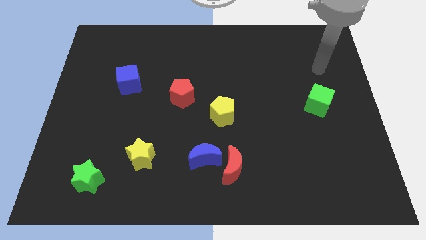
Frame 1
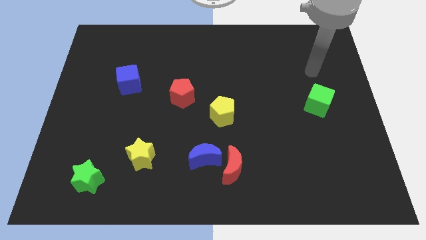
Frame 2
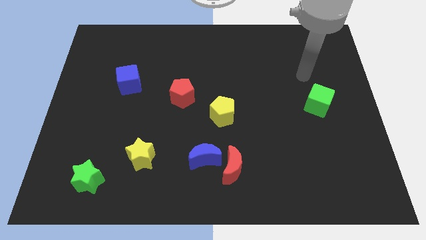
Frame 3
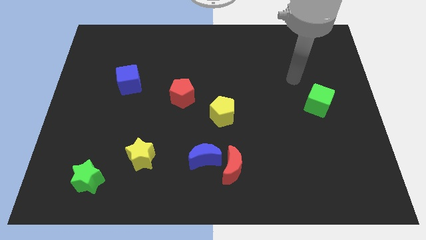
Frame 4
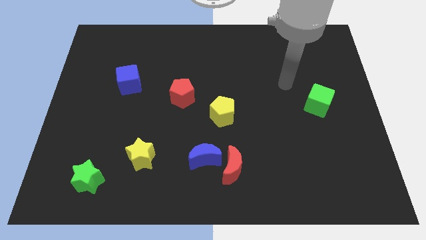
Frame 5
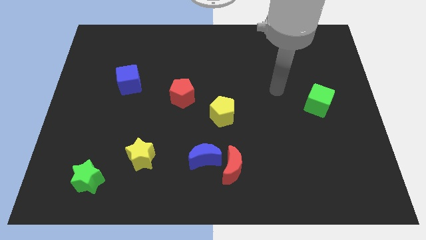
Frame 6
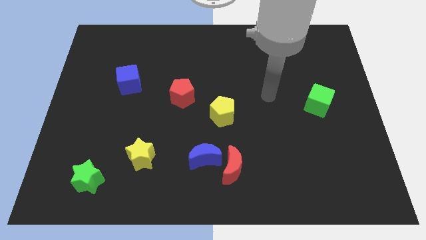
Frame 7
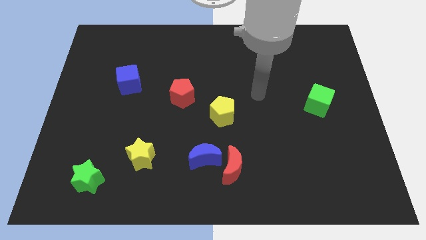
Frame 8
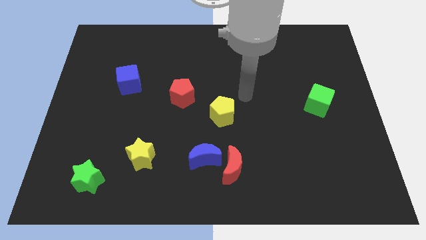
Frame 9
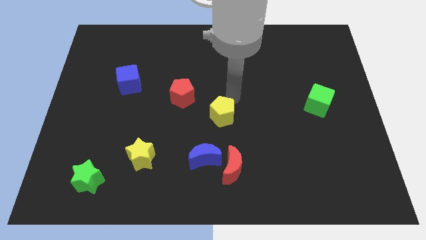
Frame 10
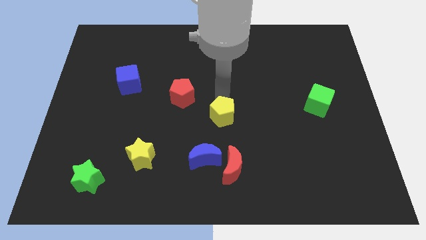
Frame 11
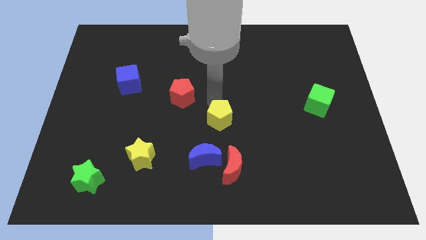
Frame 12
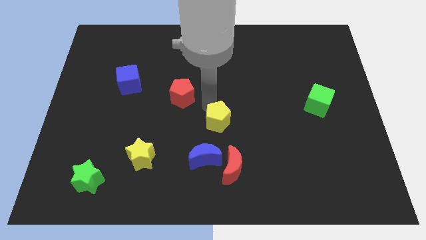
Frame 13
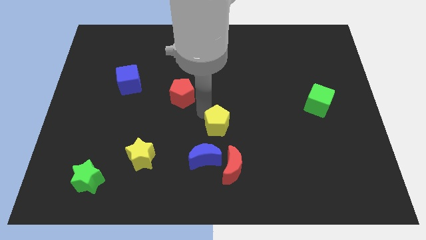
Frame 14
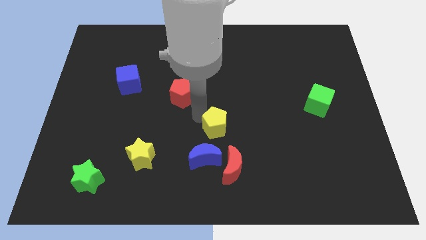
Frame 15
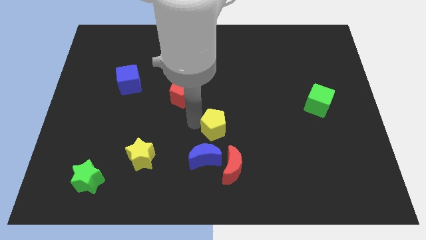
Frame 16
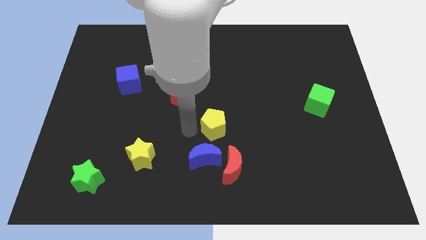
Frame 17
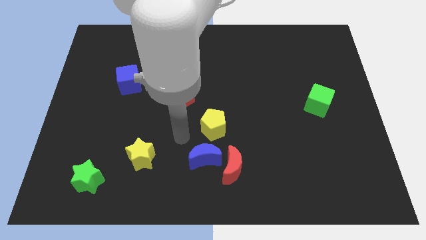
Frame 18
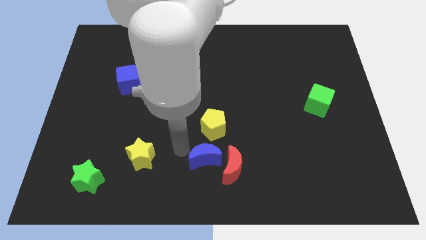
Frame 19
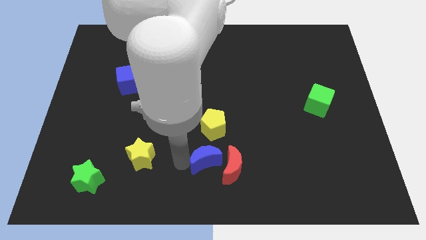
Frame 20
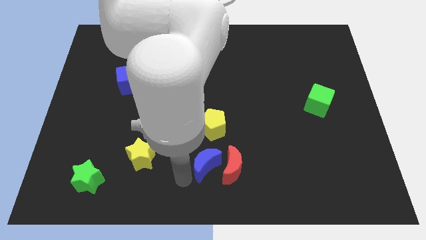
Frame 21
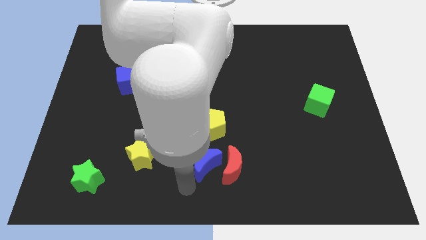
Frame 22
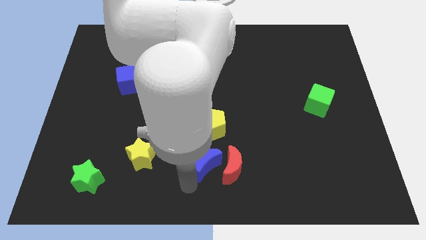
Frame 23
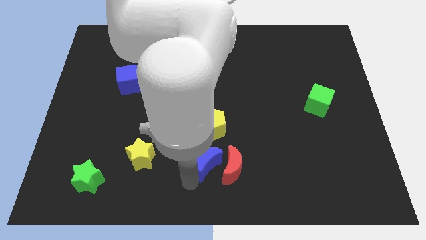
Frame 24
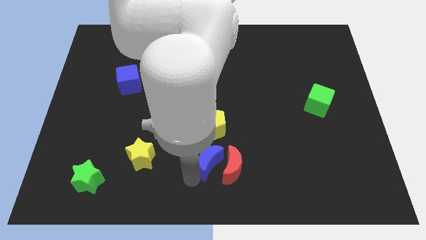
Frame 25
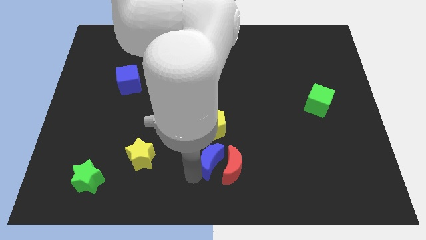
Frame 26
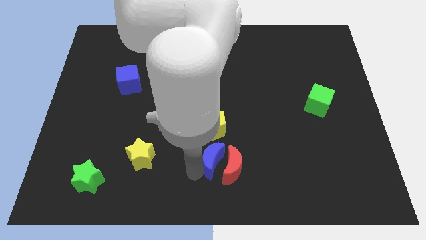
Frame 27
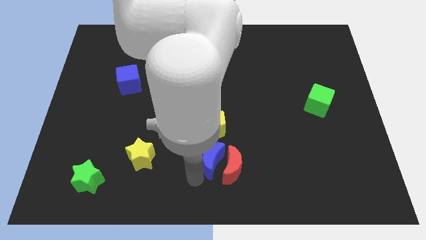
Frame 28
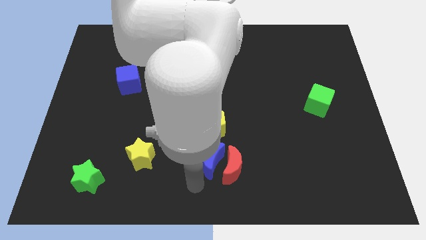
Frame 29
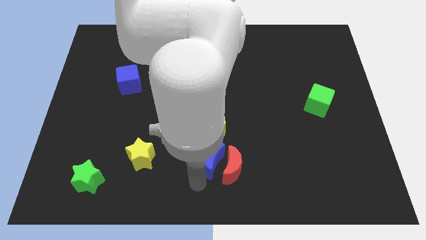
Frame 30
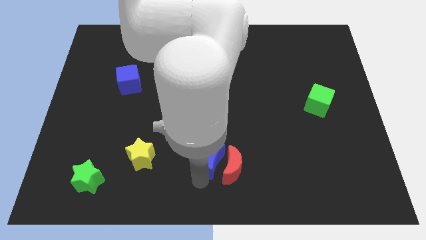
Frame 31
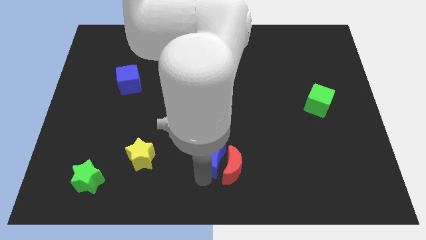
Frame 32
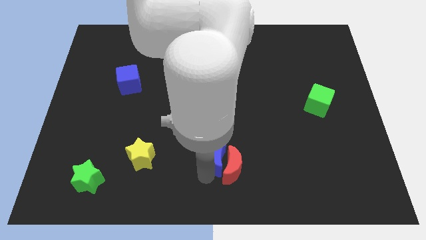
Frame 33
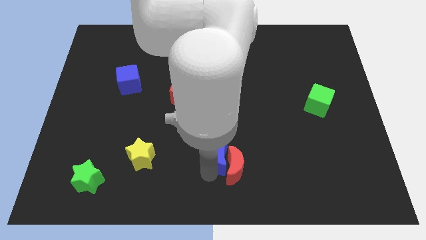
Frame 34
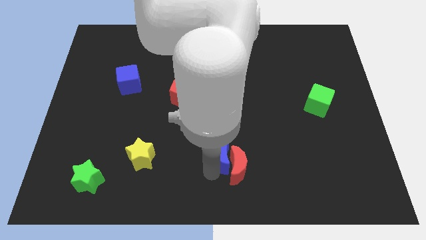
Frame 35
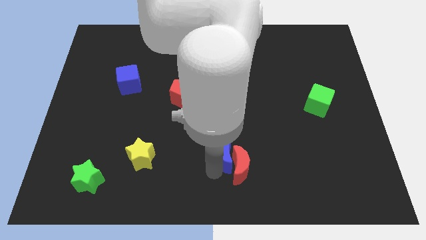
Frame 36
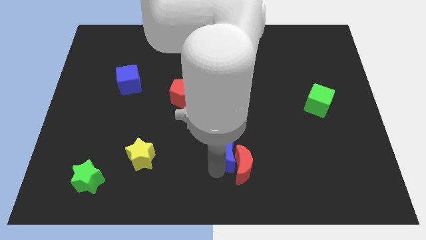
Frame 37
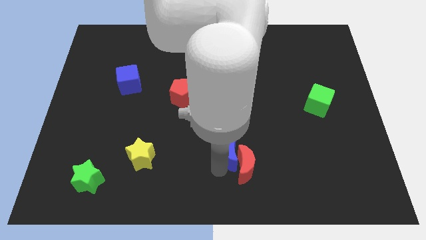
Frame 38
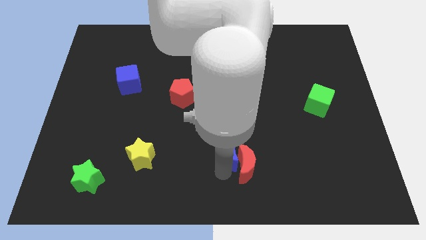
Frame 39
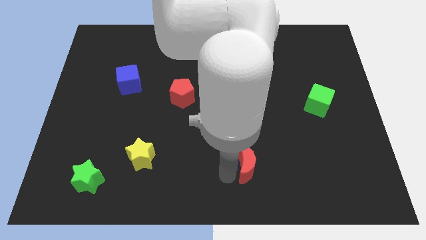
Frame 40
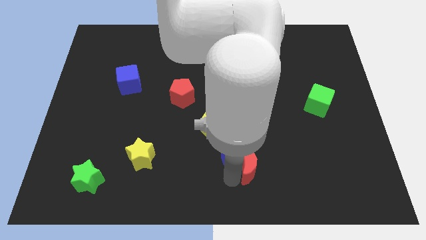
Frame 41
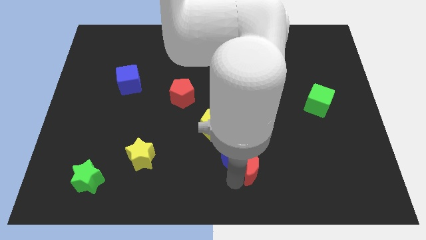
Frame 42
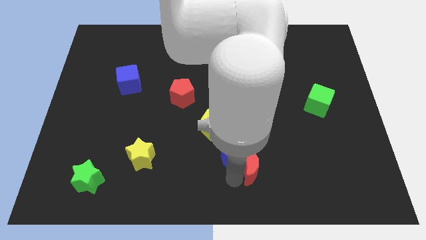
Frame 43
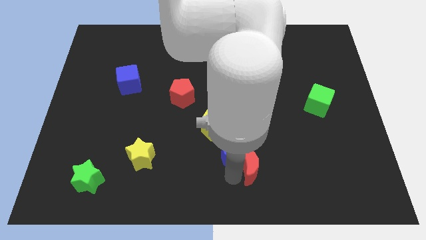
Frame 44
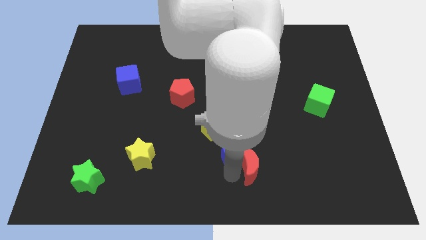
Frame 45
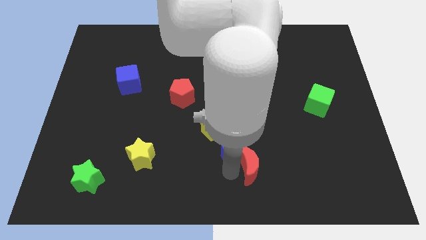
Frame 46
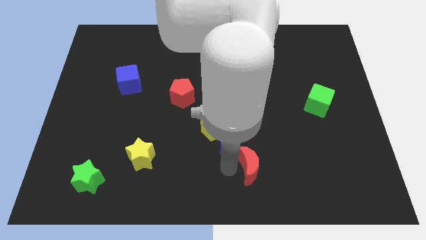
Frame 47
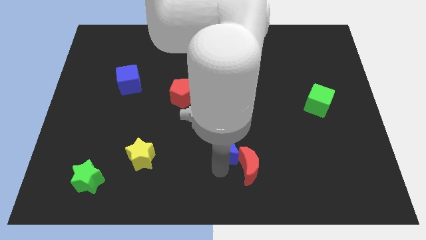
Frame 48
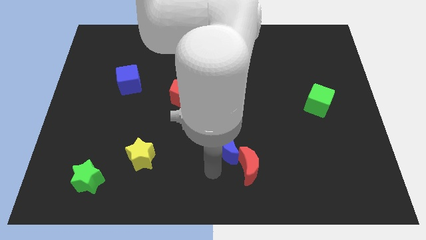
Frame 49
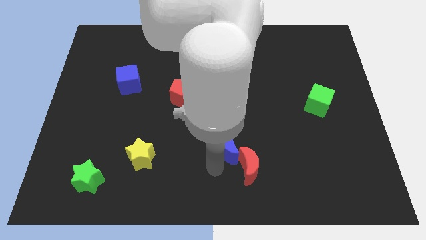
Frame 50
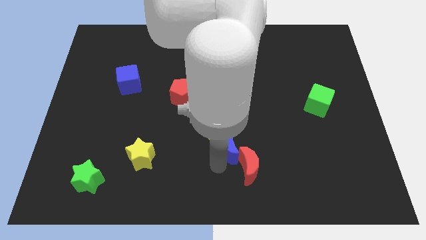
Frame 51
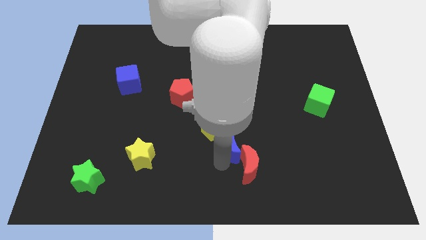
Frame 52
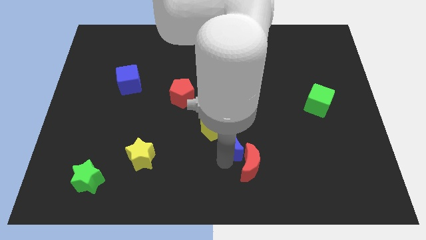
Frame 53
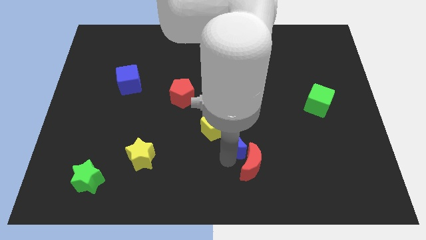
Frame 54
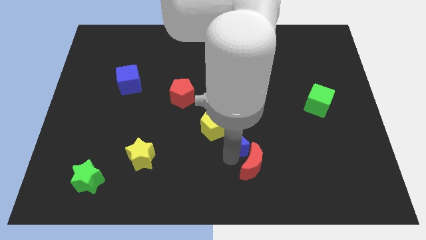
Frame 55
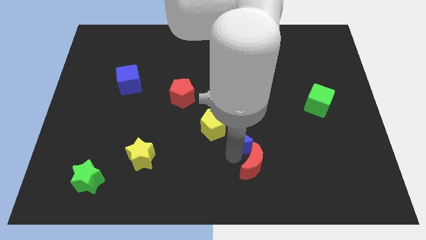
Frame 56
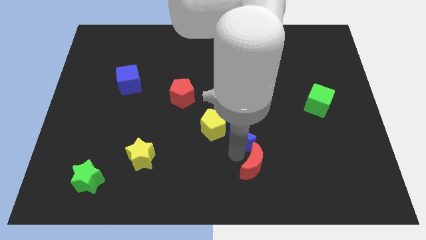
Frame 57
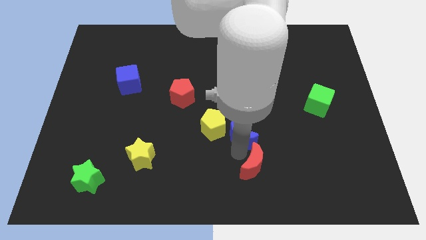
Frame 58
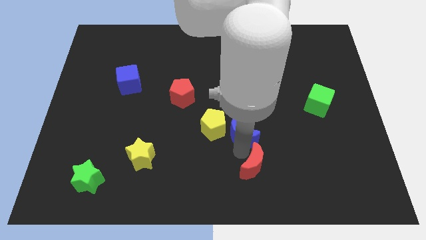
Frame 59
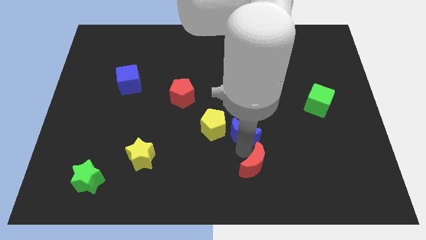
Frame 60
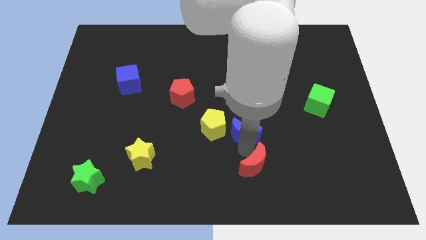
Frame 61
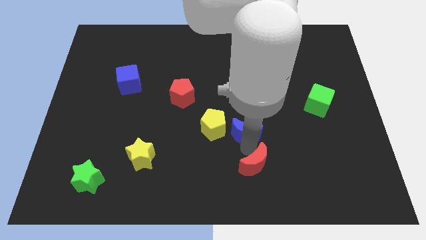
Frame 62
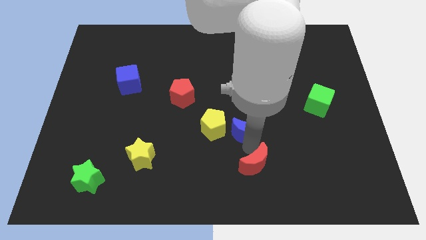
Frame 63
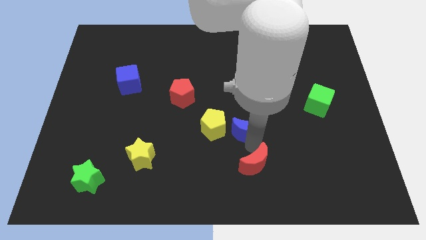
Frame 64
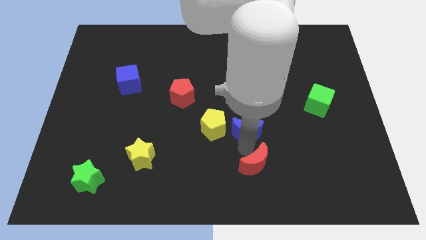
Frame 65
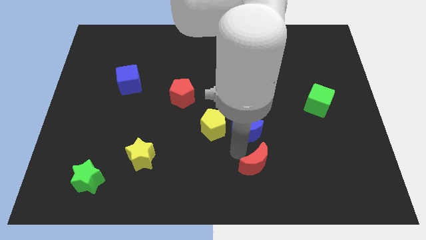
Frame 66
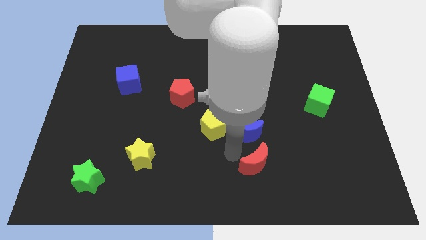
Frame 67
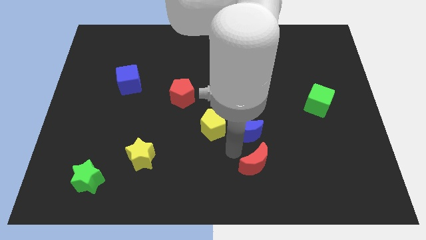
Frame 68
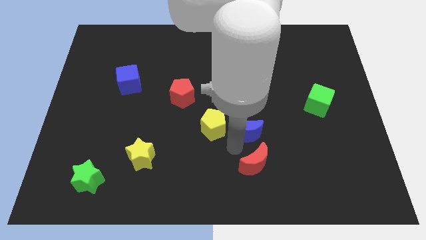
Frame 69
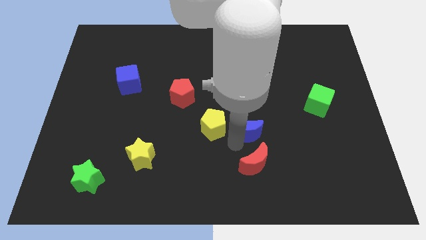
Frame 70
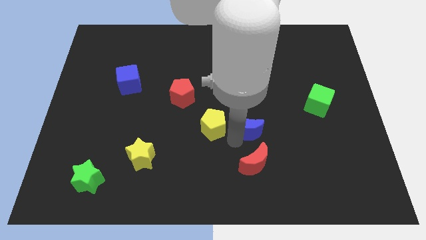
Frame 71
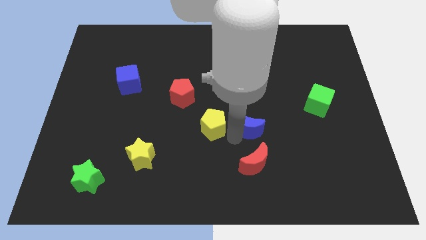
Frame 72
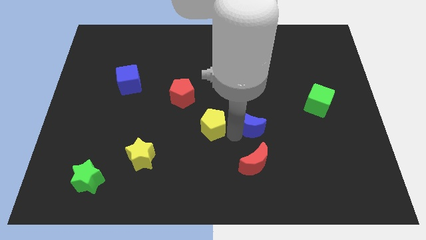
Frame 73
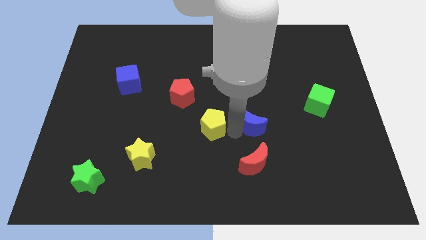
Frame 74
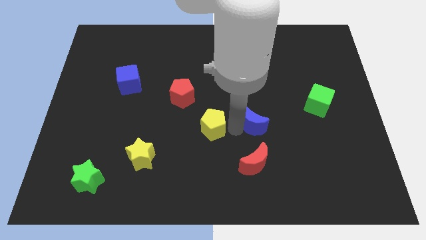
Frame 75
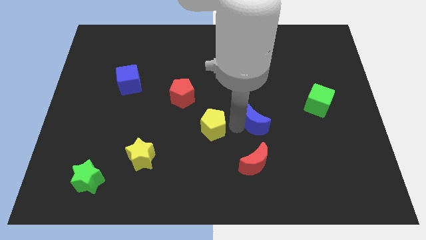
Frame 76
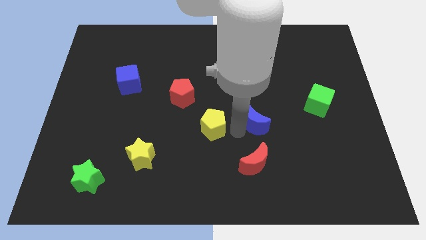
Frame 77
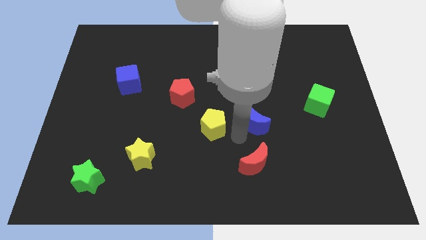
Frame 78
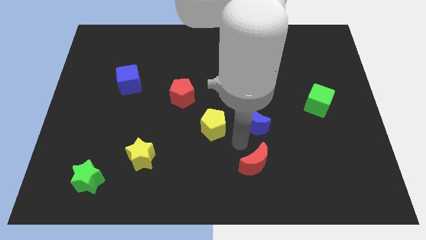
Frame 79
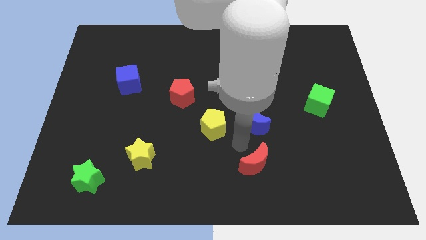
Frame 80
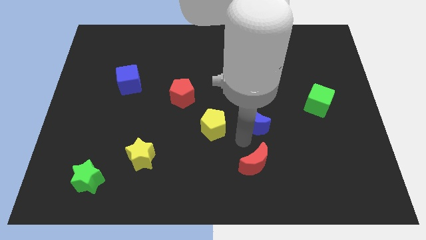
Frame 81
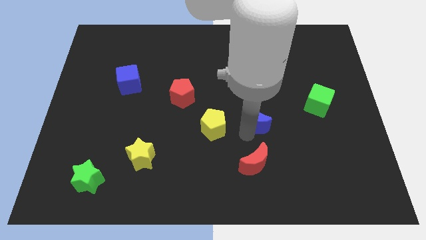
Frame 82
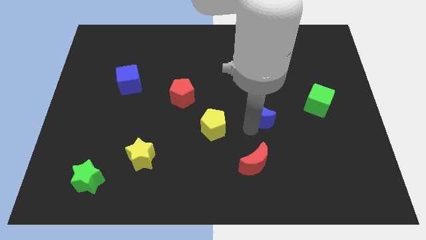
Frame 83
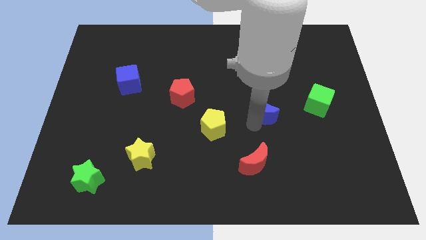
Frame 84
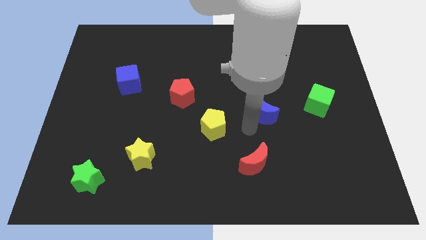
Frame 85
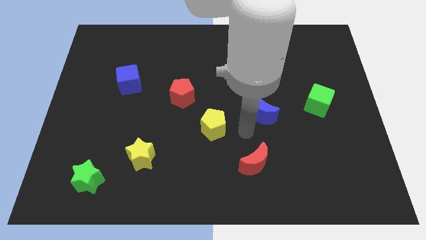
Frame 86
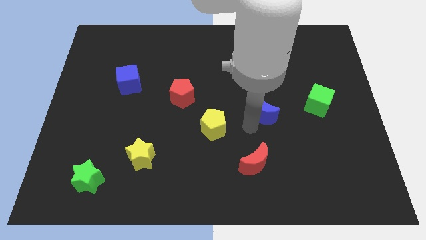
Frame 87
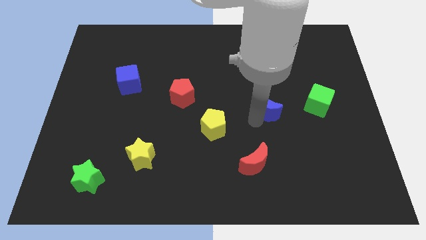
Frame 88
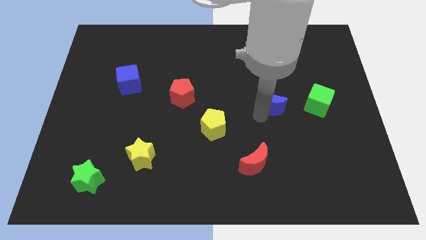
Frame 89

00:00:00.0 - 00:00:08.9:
move the blue moon up and right diagonally
